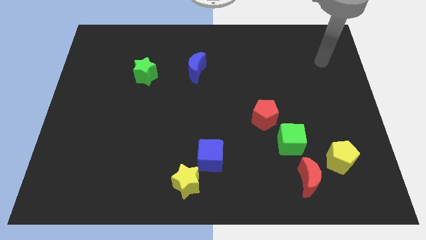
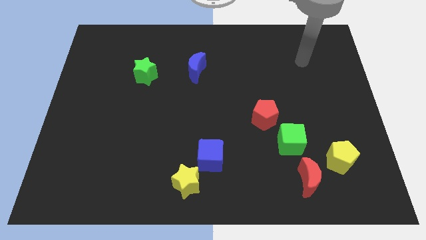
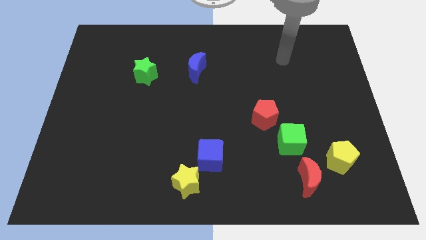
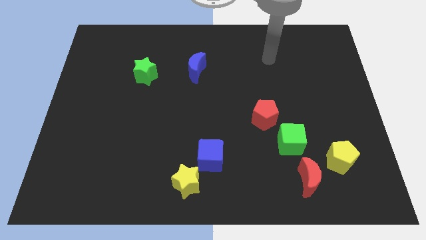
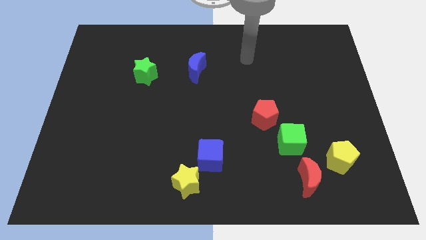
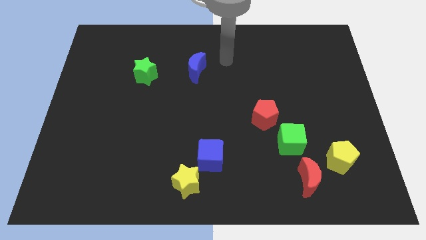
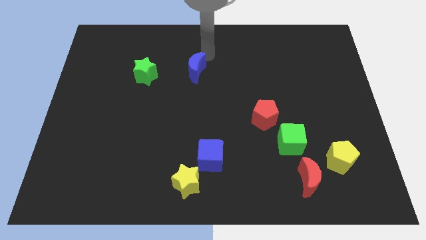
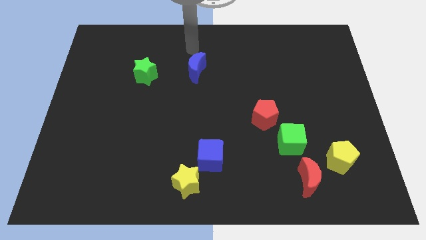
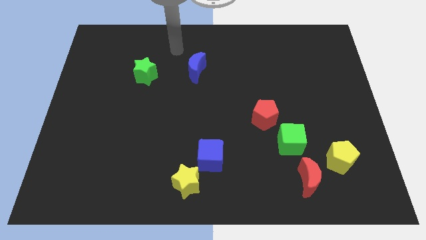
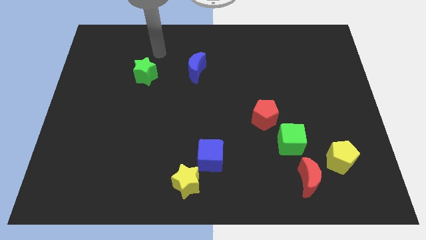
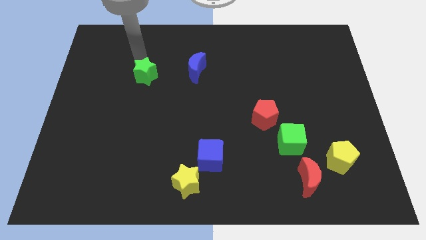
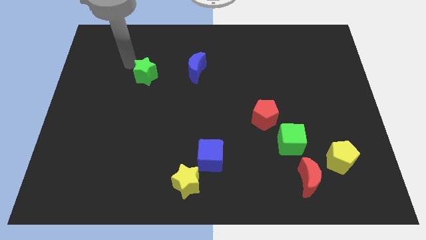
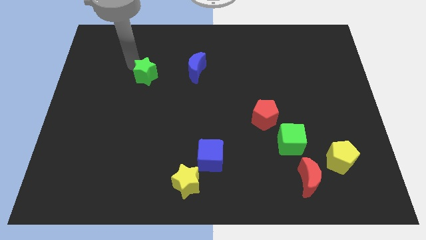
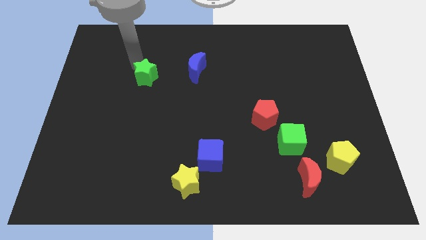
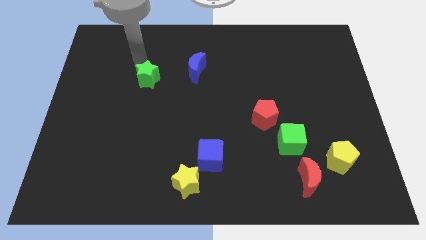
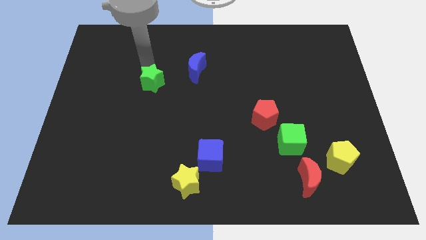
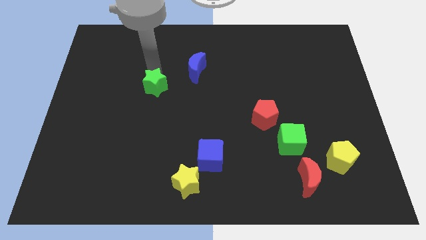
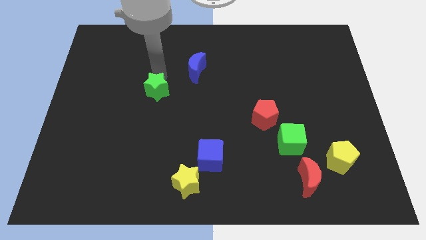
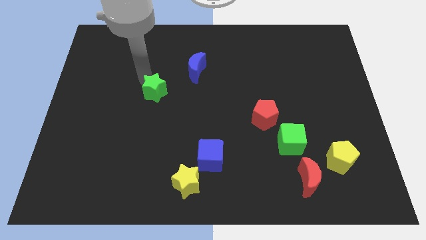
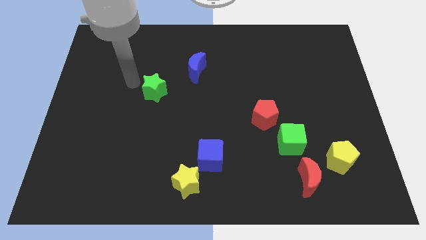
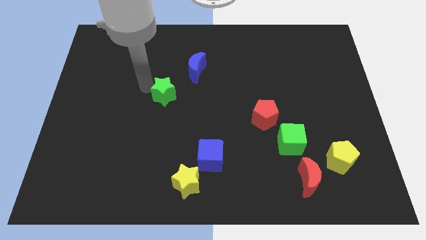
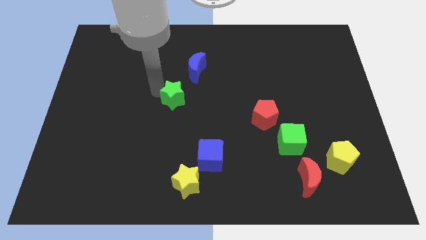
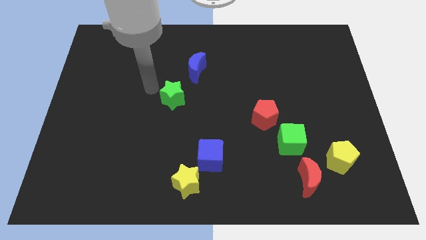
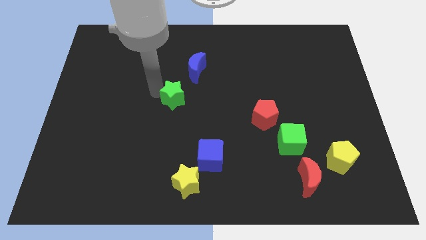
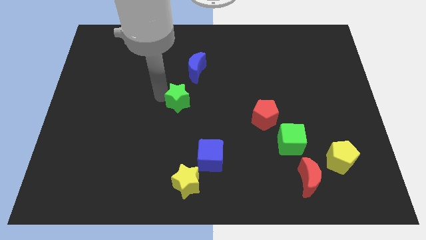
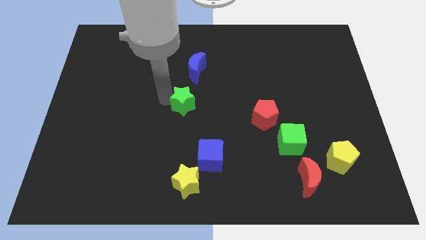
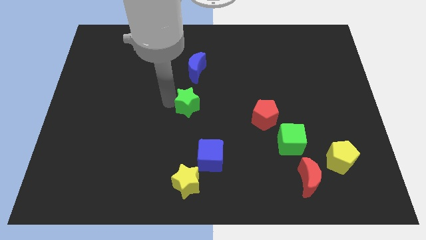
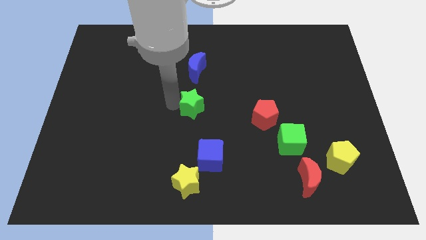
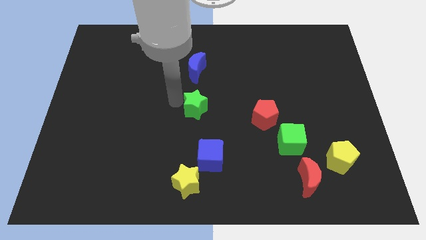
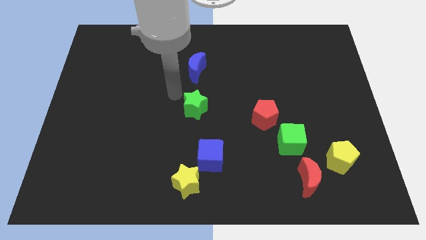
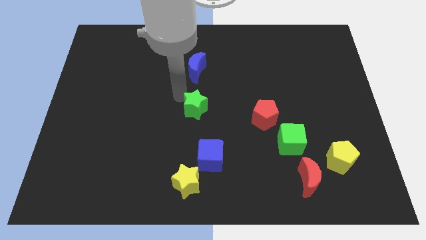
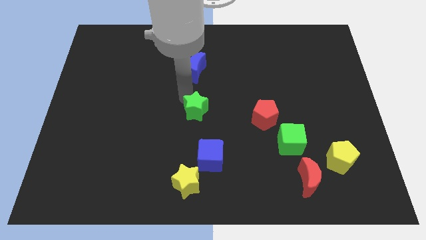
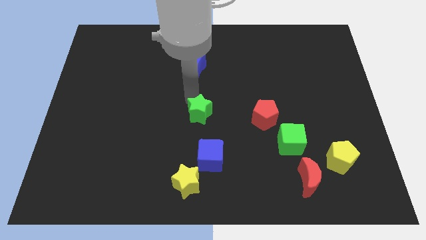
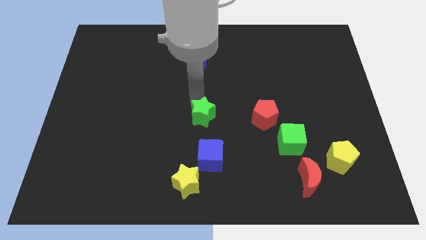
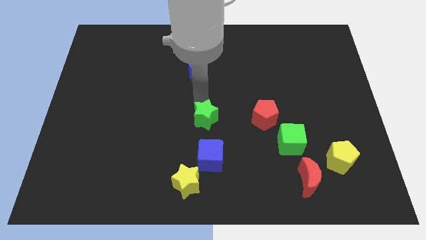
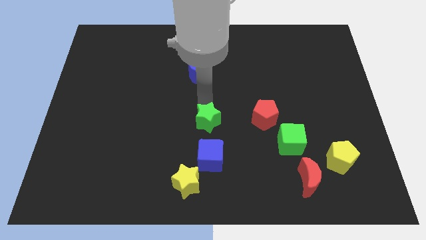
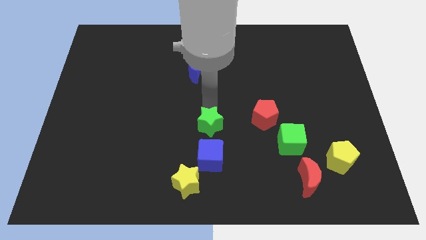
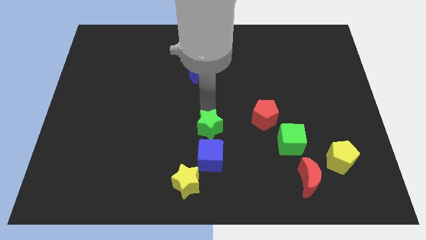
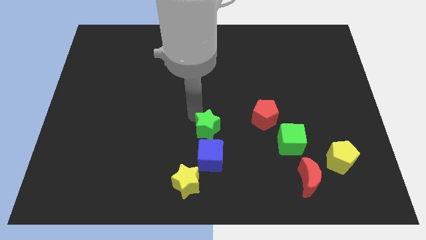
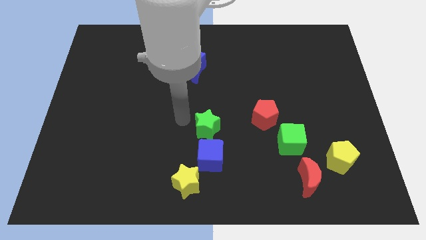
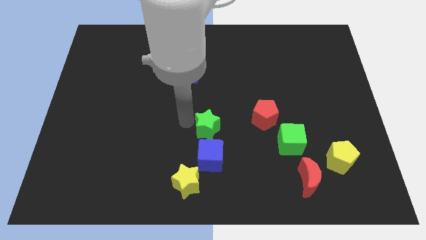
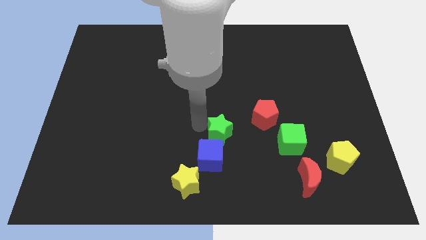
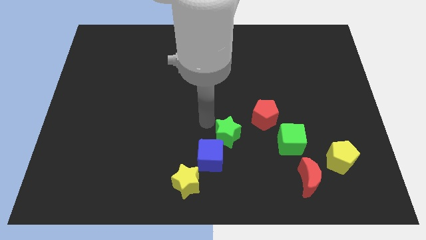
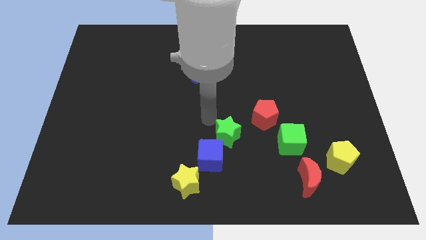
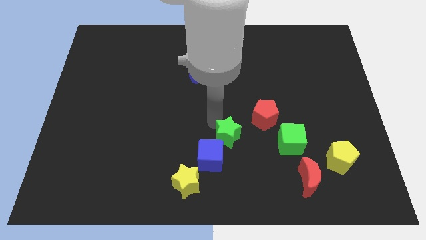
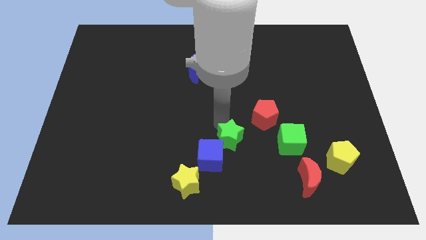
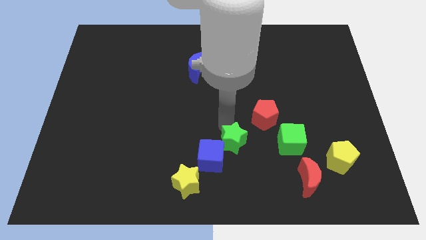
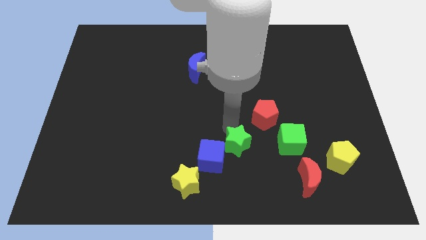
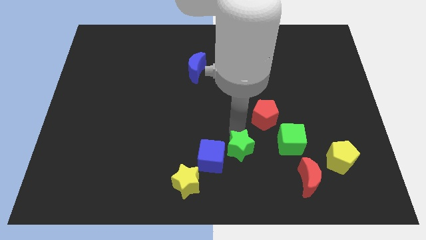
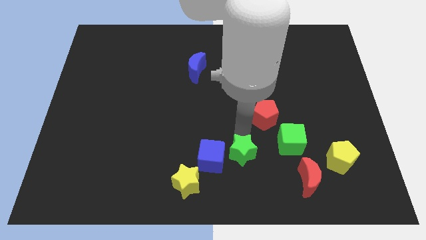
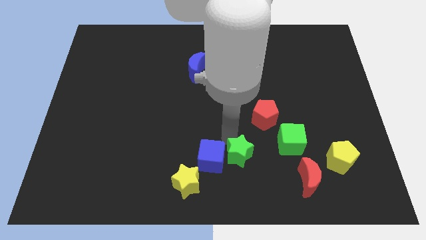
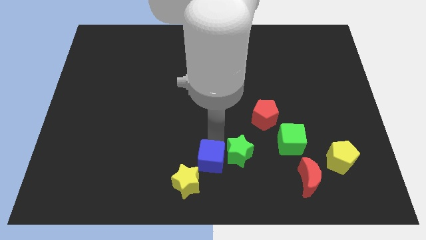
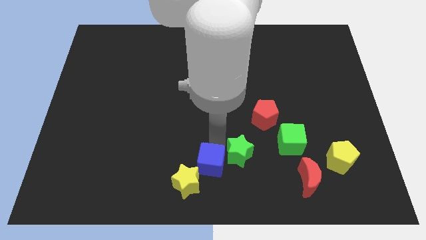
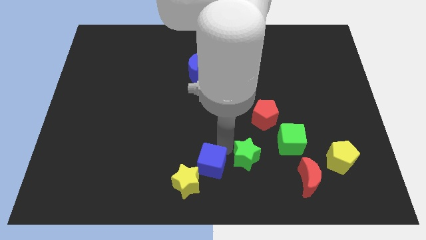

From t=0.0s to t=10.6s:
slide the green star to the bottom left of the green cube

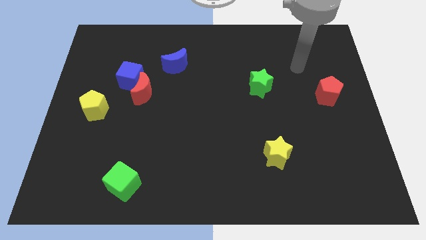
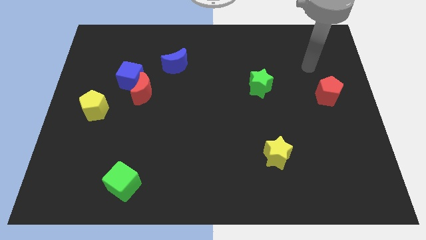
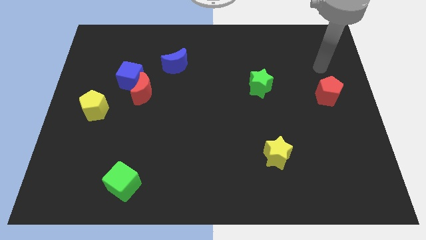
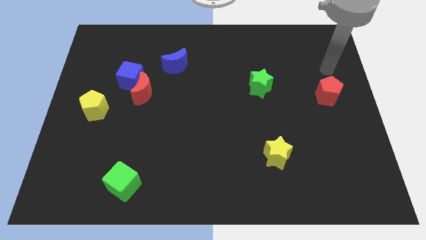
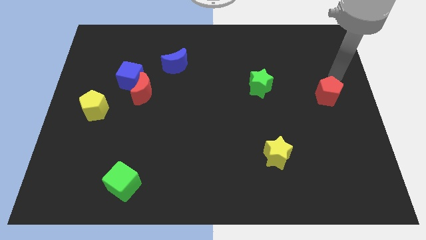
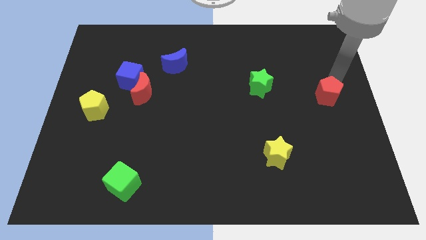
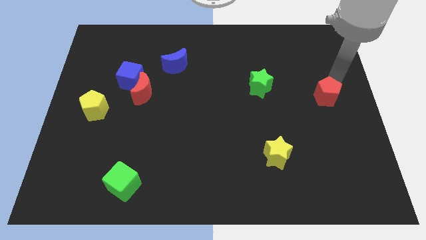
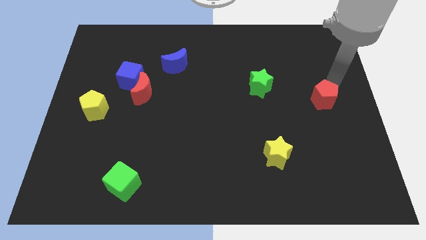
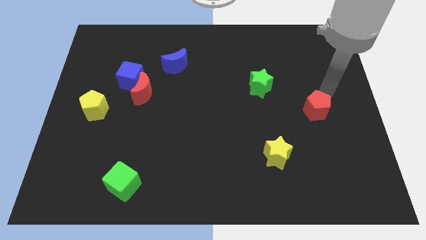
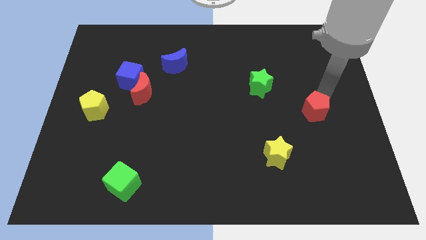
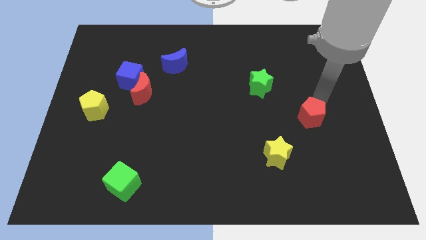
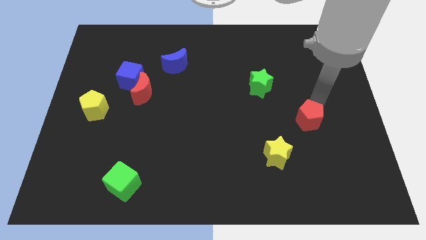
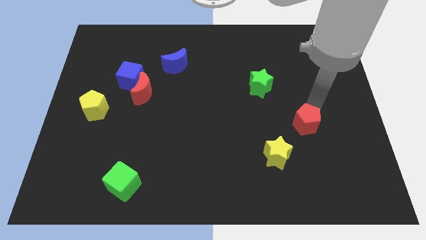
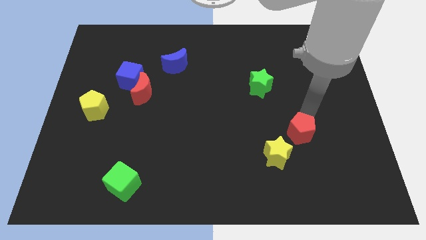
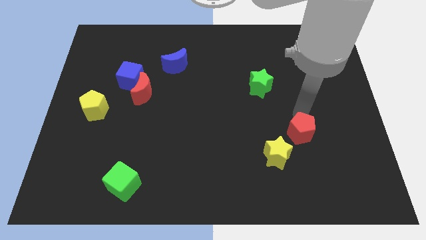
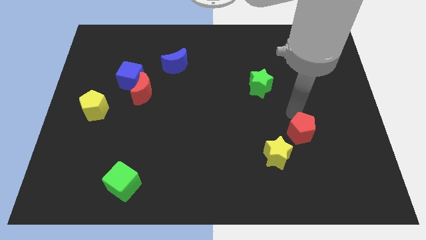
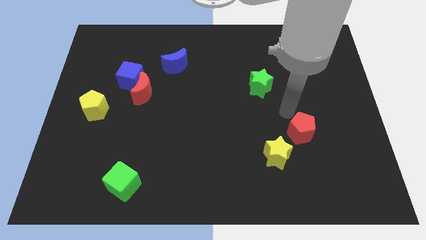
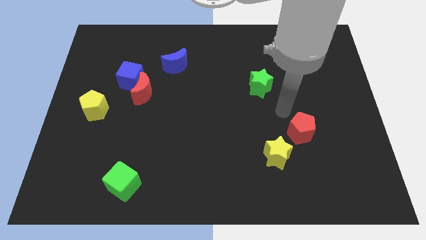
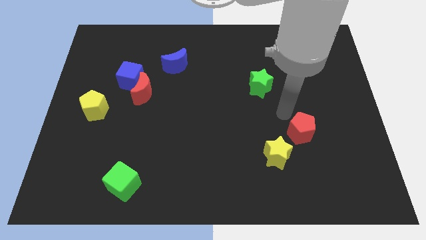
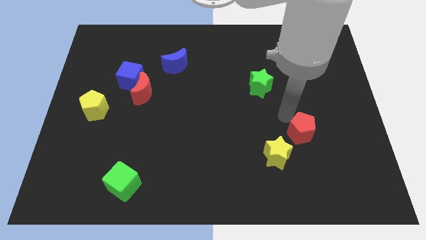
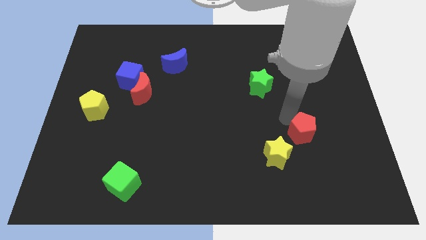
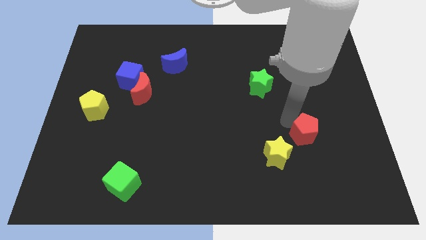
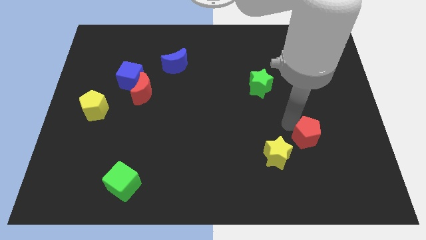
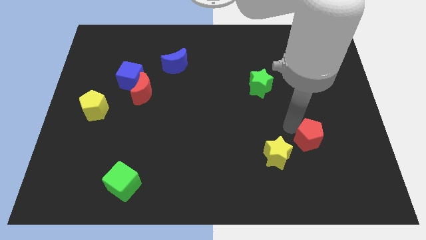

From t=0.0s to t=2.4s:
put the red pentagon to the right side of the yellow star
